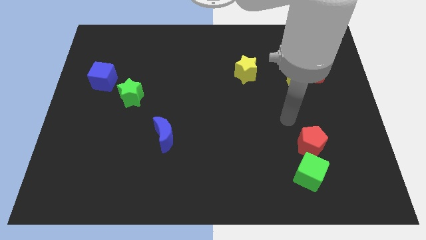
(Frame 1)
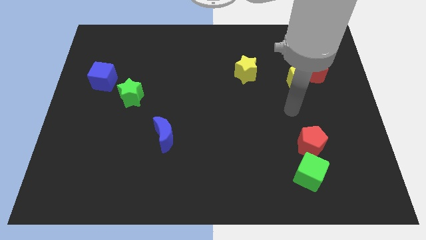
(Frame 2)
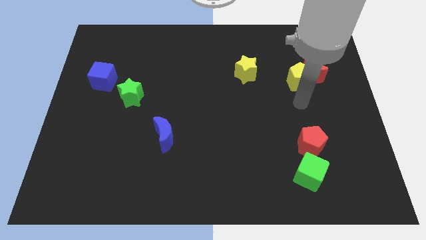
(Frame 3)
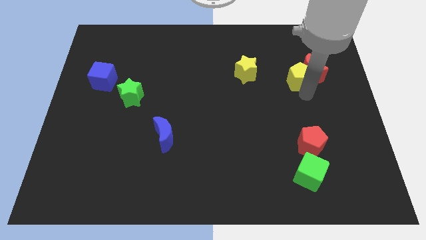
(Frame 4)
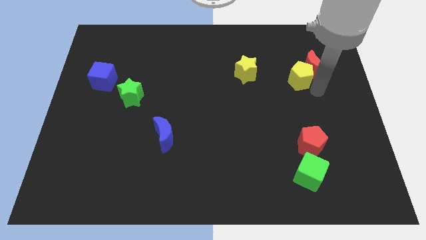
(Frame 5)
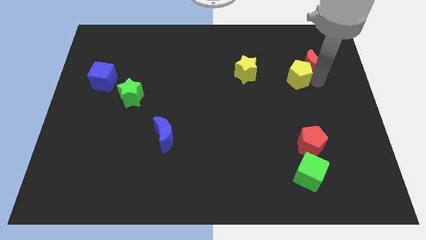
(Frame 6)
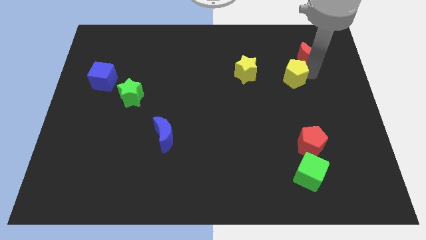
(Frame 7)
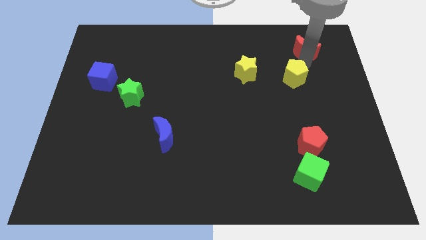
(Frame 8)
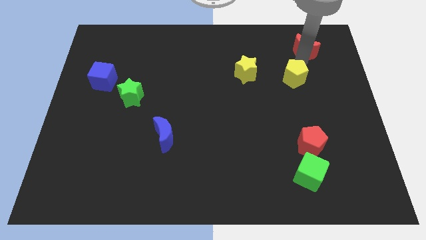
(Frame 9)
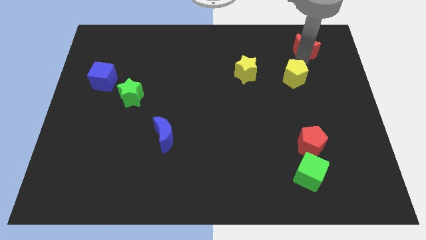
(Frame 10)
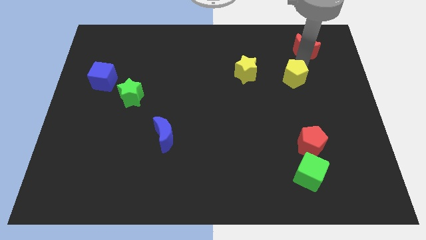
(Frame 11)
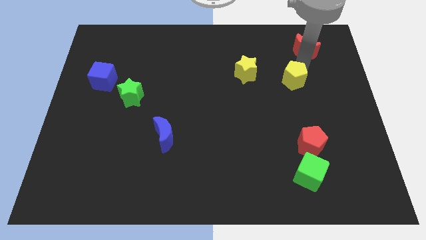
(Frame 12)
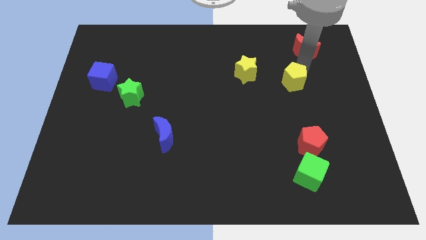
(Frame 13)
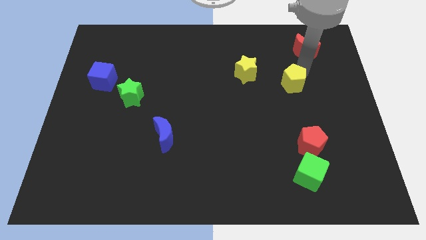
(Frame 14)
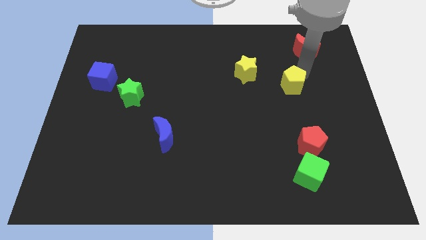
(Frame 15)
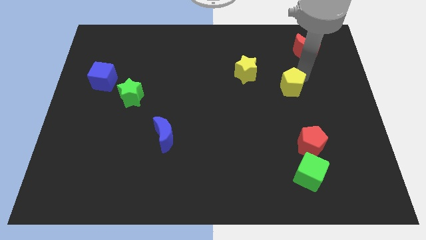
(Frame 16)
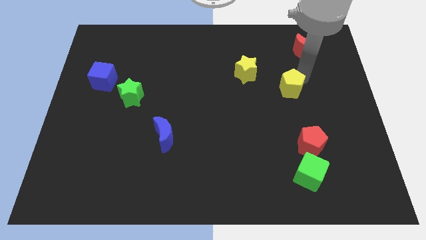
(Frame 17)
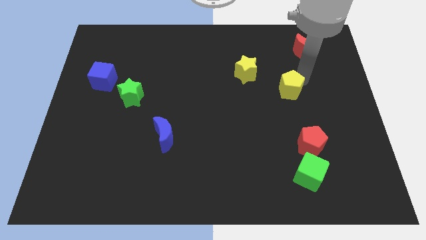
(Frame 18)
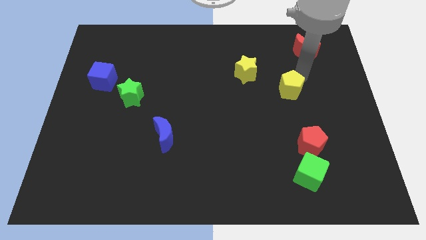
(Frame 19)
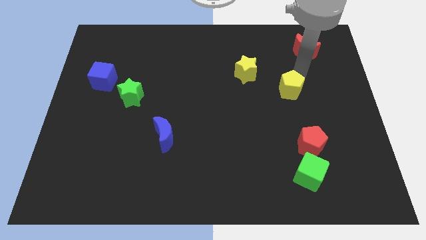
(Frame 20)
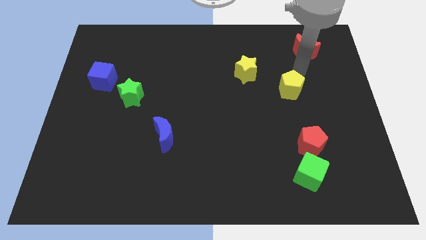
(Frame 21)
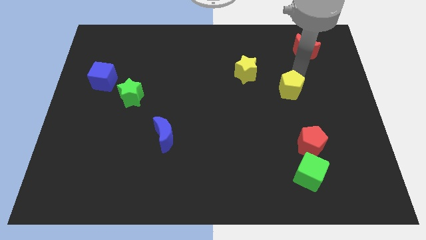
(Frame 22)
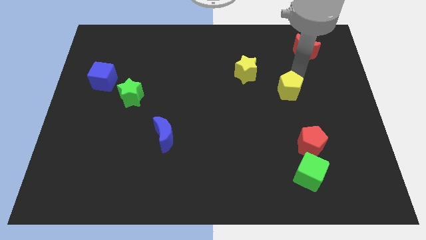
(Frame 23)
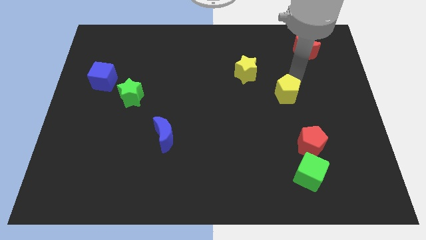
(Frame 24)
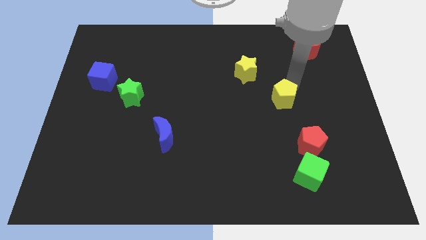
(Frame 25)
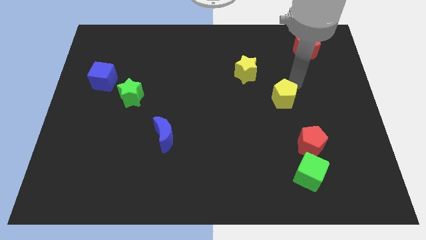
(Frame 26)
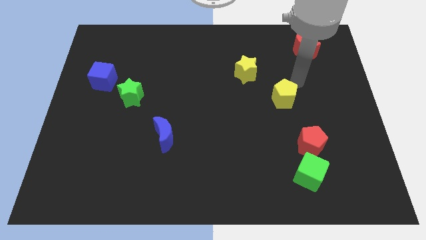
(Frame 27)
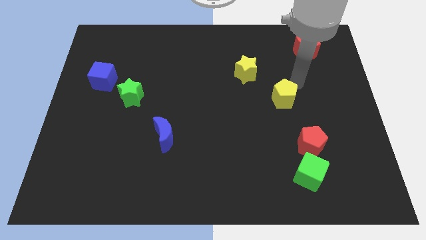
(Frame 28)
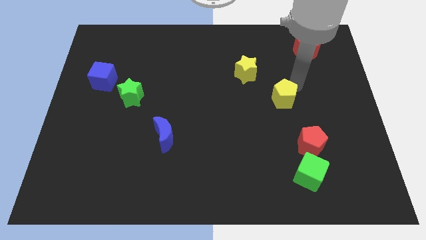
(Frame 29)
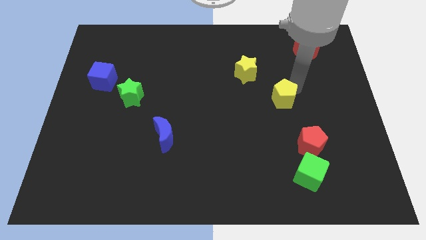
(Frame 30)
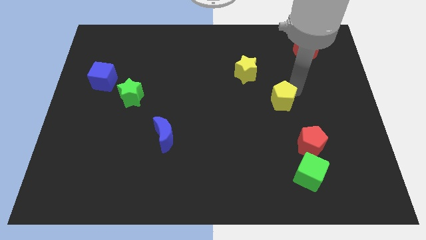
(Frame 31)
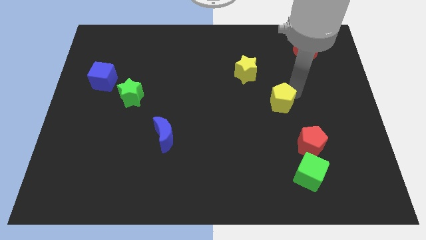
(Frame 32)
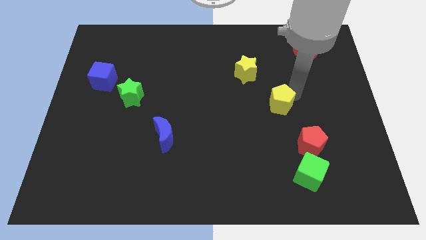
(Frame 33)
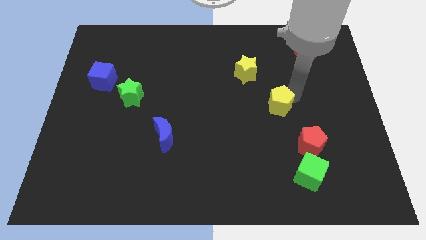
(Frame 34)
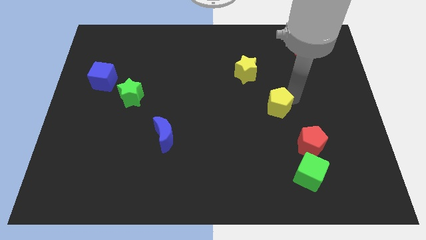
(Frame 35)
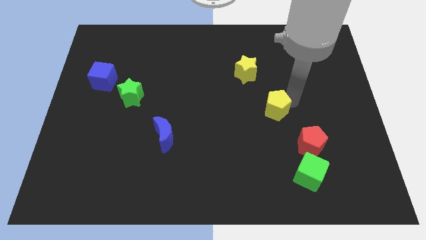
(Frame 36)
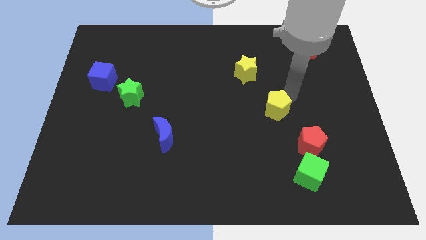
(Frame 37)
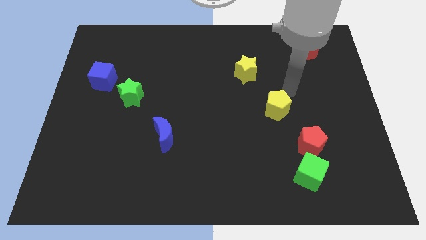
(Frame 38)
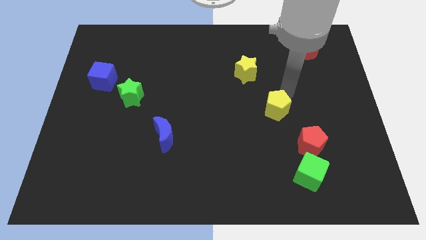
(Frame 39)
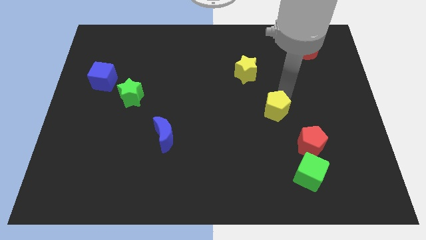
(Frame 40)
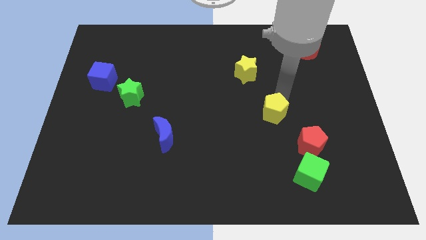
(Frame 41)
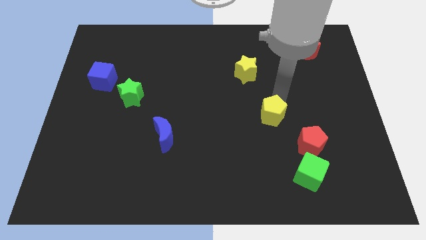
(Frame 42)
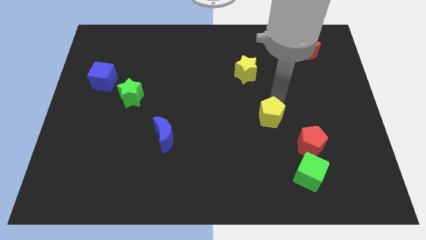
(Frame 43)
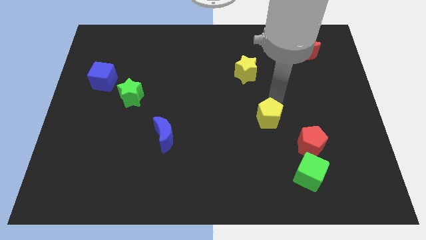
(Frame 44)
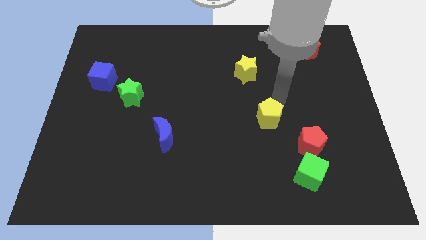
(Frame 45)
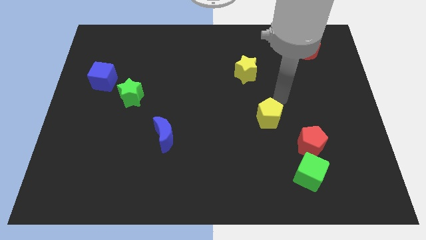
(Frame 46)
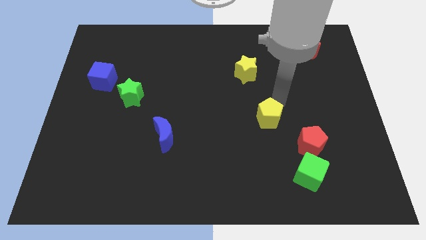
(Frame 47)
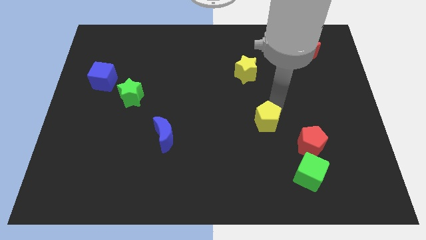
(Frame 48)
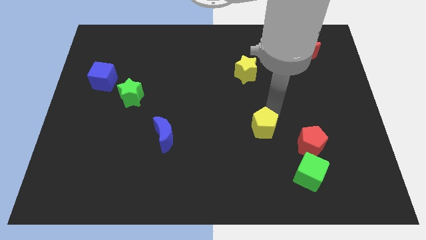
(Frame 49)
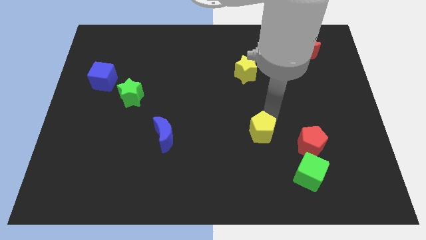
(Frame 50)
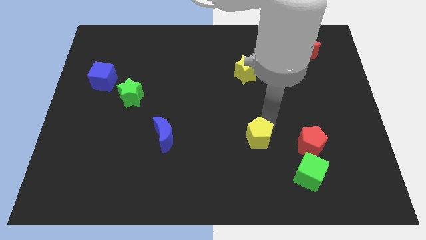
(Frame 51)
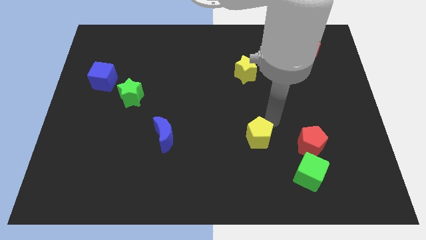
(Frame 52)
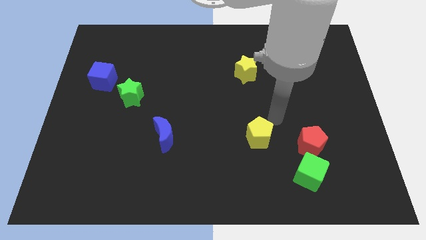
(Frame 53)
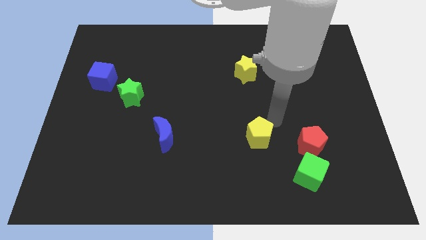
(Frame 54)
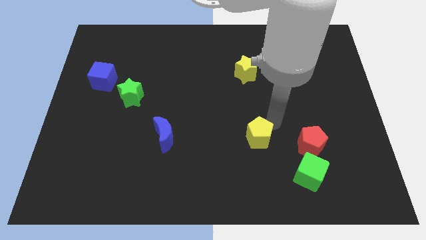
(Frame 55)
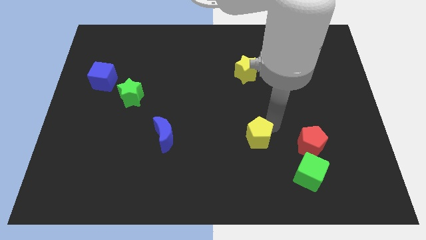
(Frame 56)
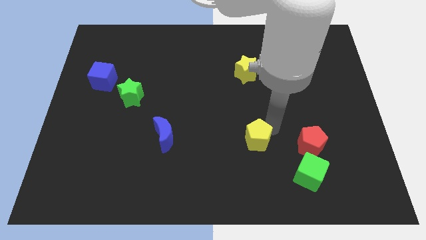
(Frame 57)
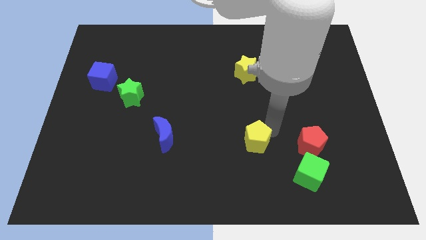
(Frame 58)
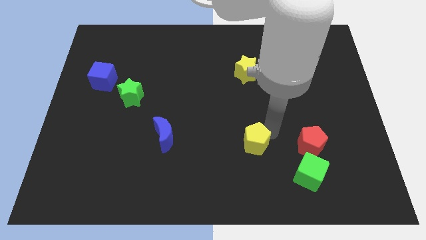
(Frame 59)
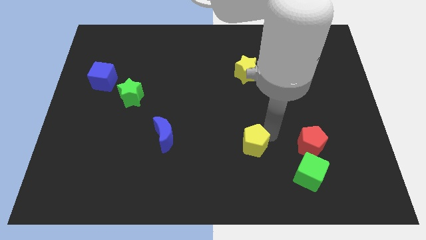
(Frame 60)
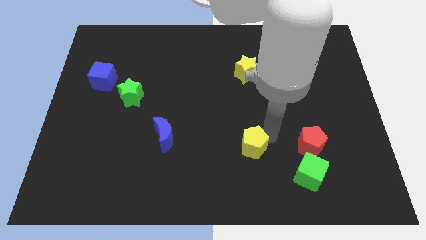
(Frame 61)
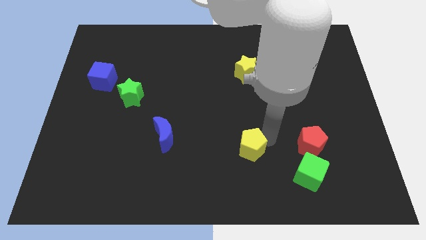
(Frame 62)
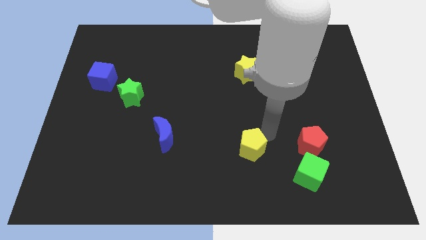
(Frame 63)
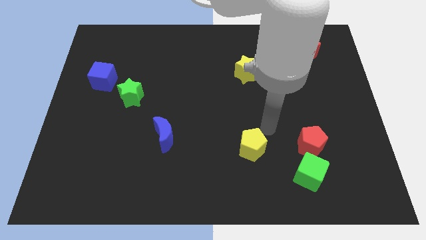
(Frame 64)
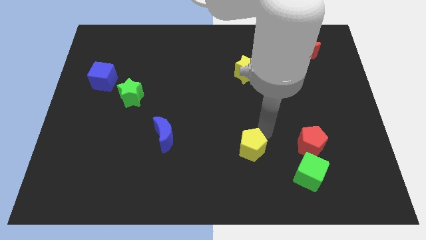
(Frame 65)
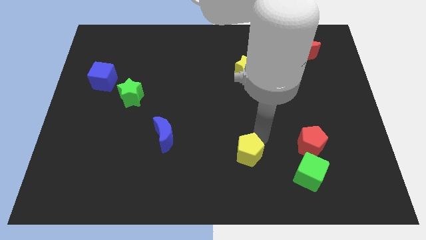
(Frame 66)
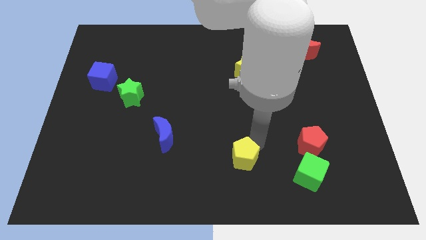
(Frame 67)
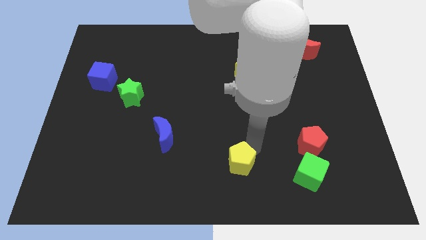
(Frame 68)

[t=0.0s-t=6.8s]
push the yellow pentagon to the bottom side
